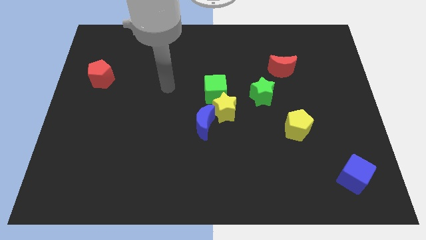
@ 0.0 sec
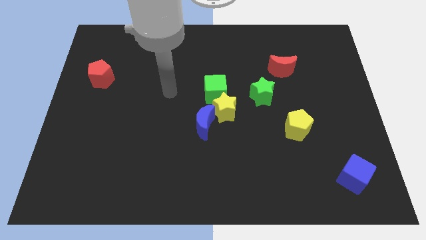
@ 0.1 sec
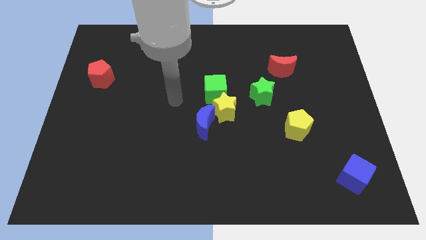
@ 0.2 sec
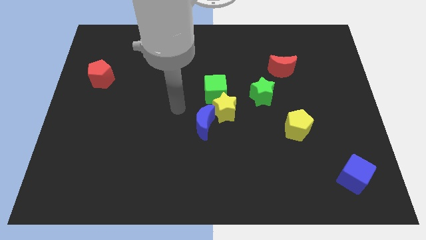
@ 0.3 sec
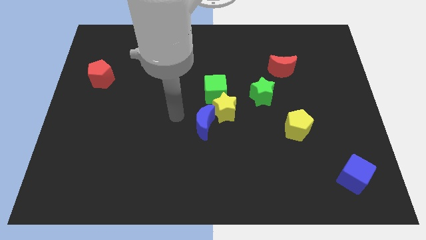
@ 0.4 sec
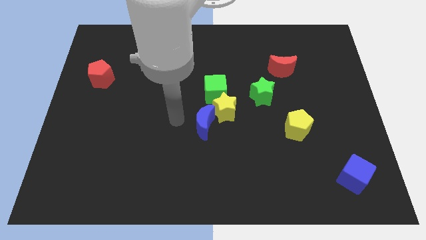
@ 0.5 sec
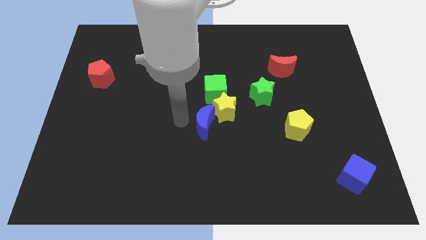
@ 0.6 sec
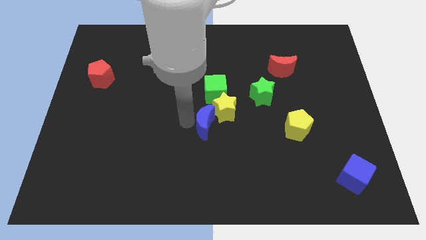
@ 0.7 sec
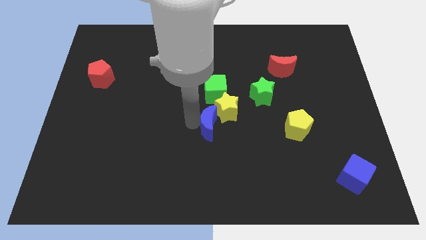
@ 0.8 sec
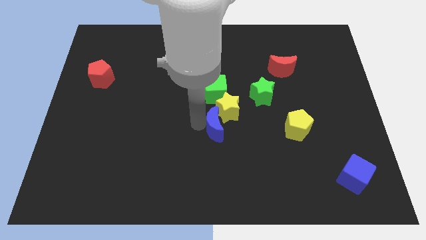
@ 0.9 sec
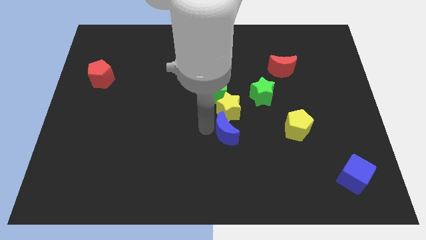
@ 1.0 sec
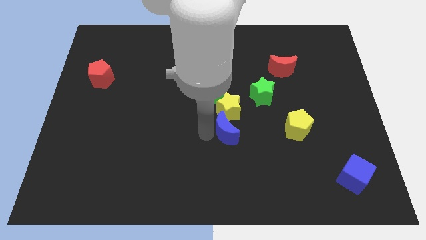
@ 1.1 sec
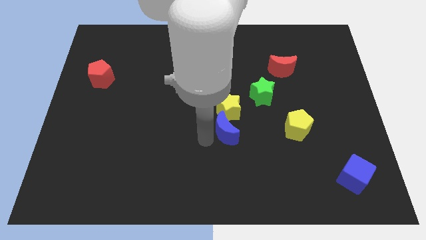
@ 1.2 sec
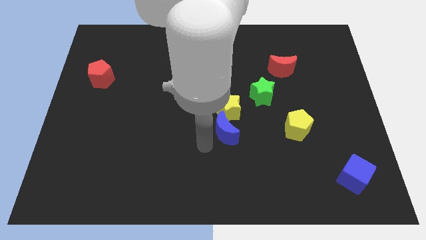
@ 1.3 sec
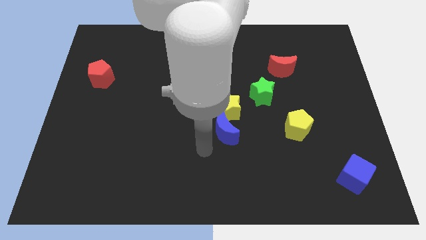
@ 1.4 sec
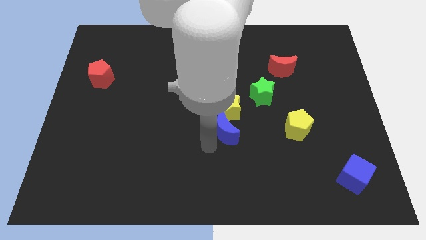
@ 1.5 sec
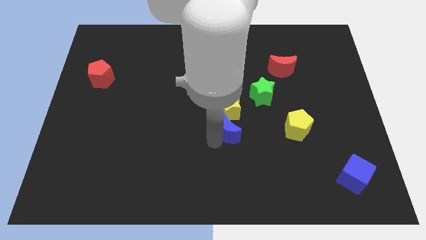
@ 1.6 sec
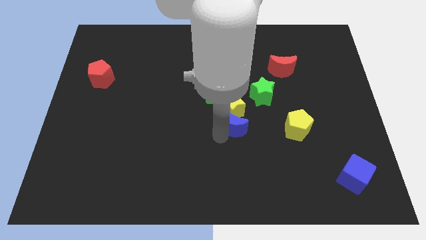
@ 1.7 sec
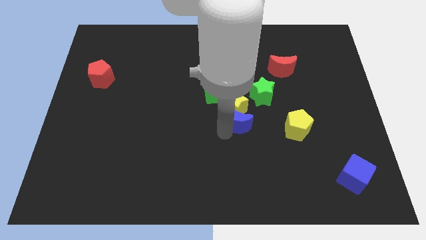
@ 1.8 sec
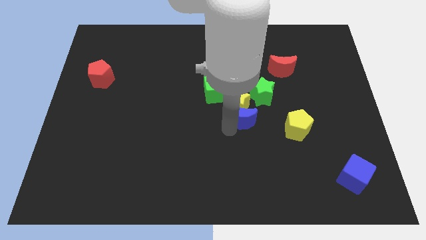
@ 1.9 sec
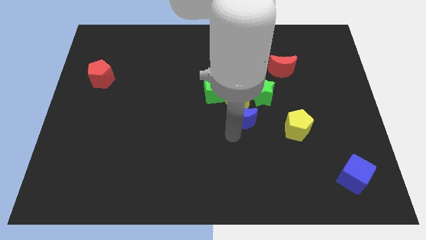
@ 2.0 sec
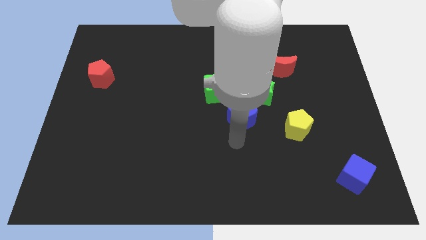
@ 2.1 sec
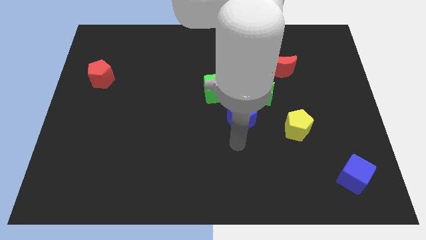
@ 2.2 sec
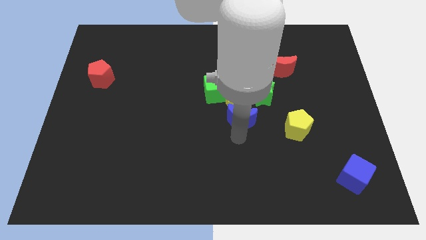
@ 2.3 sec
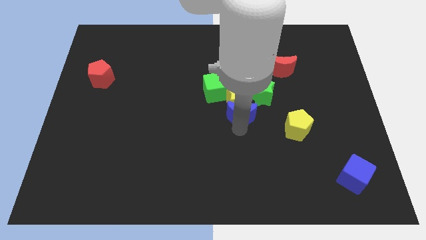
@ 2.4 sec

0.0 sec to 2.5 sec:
slide the blue moon a little up and to the right diagonally

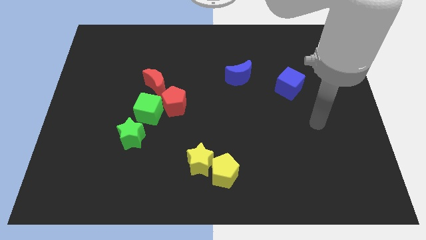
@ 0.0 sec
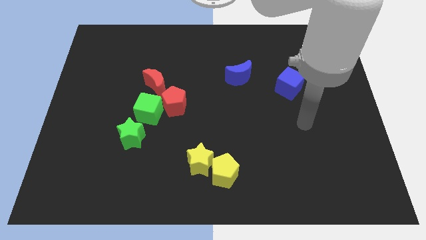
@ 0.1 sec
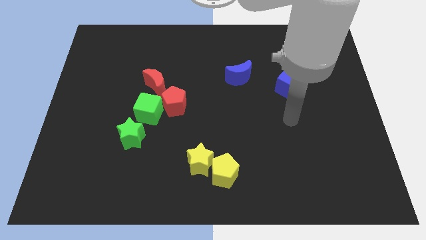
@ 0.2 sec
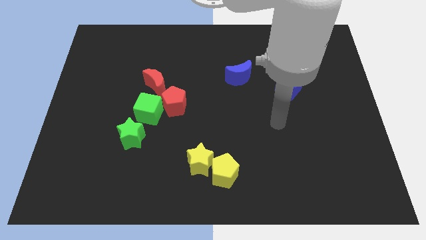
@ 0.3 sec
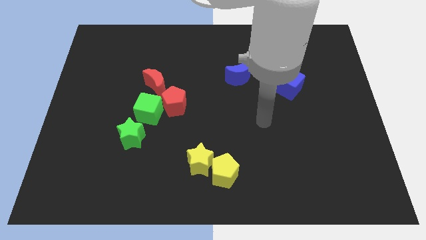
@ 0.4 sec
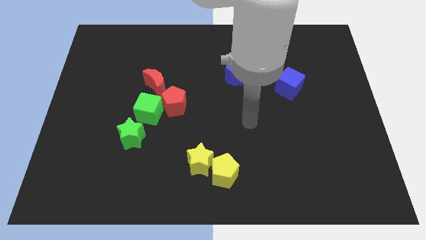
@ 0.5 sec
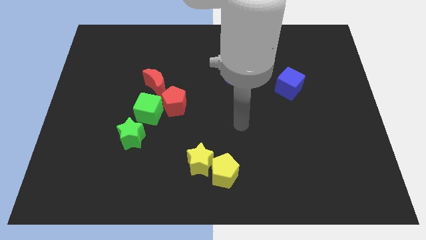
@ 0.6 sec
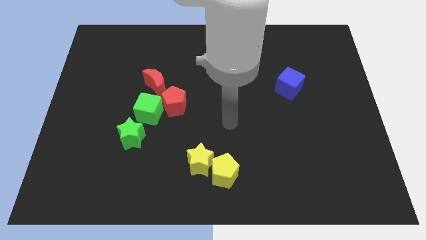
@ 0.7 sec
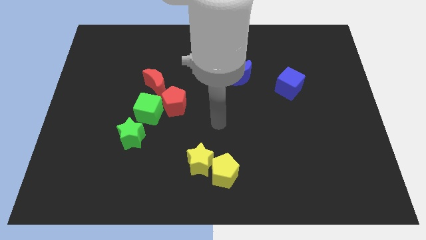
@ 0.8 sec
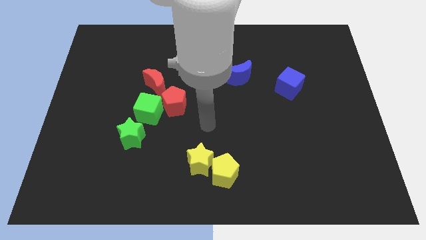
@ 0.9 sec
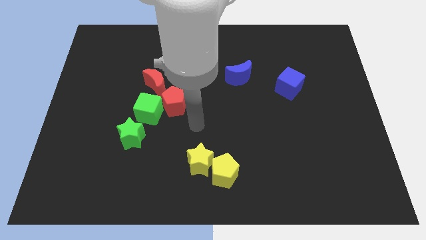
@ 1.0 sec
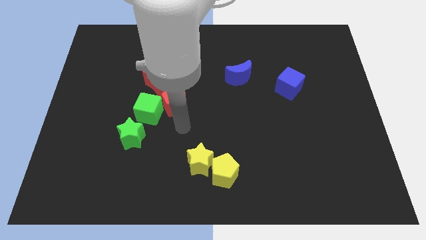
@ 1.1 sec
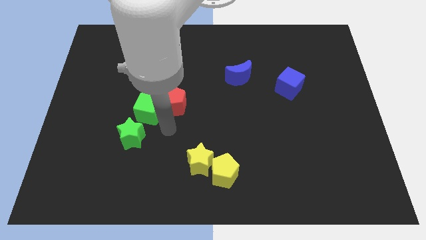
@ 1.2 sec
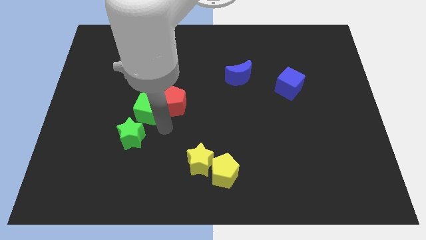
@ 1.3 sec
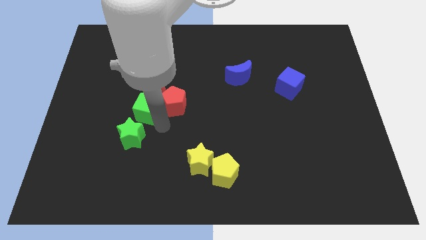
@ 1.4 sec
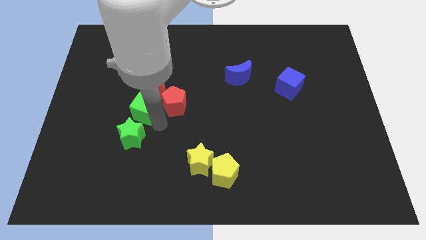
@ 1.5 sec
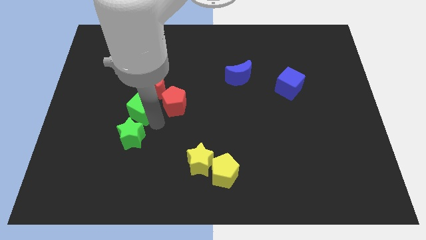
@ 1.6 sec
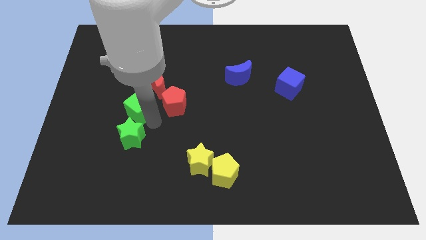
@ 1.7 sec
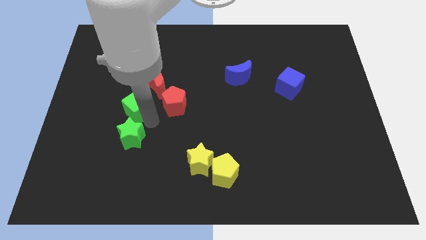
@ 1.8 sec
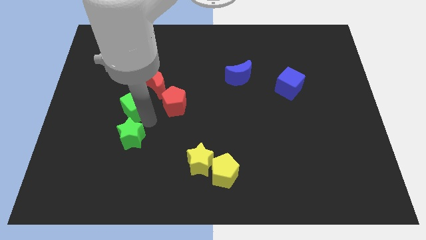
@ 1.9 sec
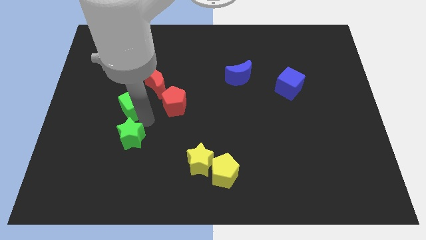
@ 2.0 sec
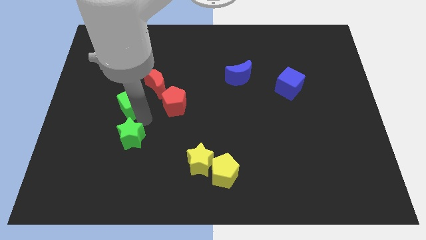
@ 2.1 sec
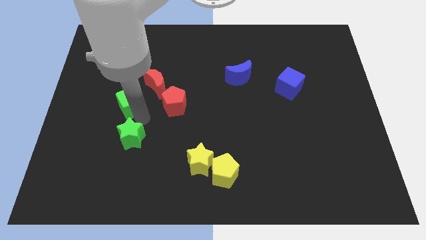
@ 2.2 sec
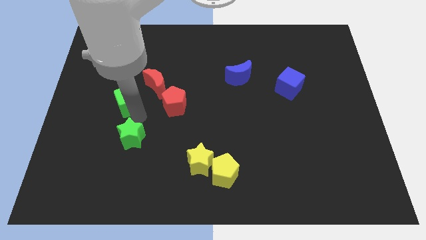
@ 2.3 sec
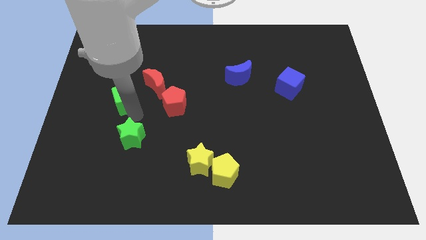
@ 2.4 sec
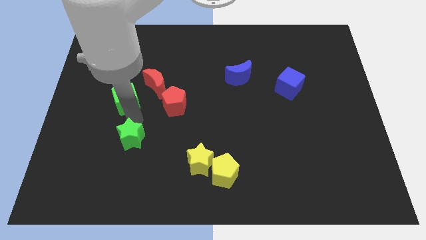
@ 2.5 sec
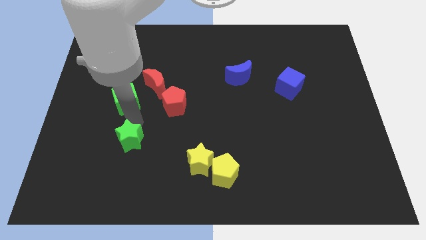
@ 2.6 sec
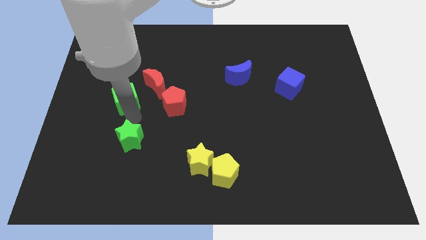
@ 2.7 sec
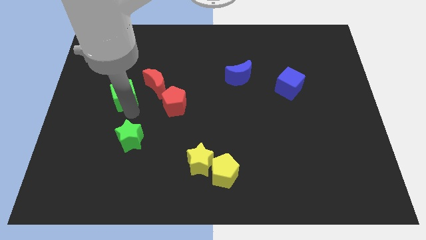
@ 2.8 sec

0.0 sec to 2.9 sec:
slightly push the green cube upwards and left

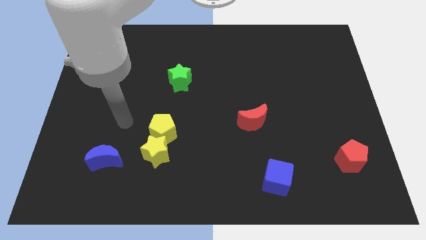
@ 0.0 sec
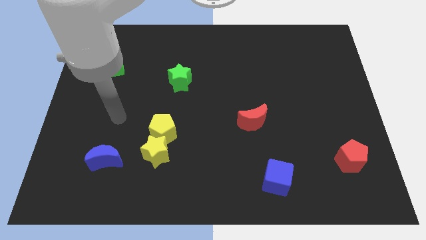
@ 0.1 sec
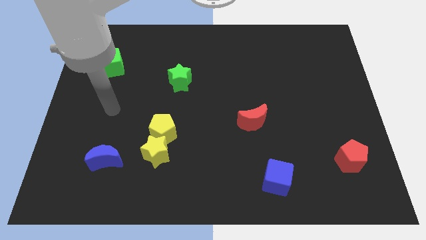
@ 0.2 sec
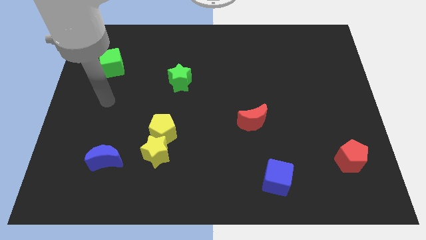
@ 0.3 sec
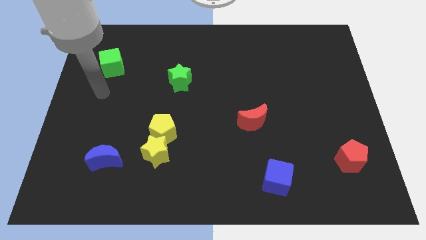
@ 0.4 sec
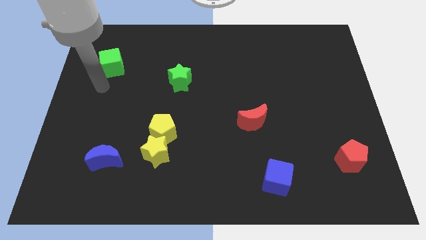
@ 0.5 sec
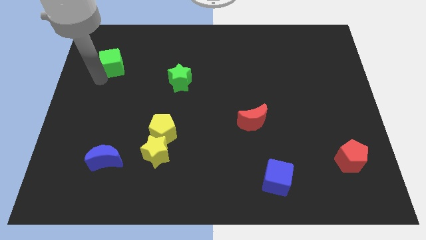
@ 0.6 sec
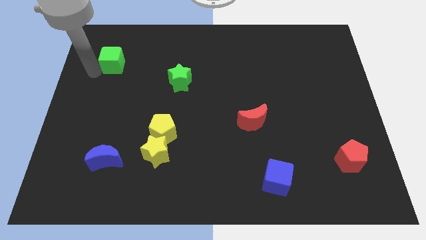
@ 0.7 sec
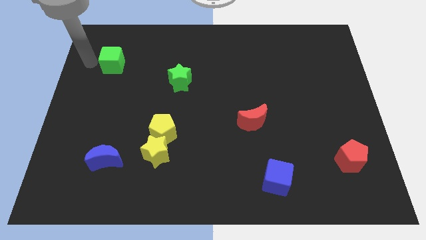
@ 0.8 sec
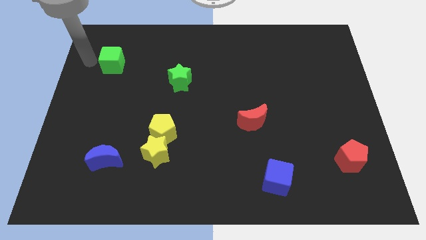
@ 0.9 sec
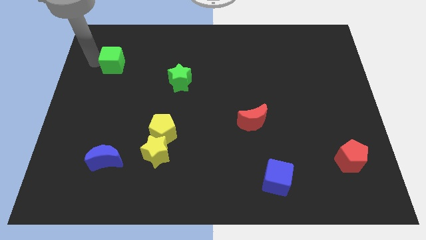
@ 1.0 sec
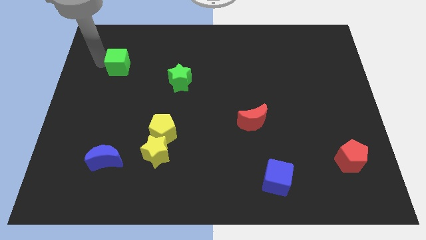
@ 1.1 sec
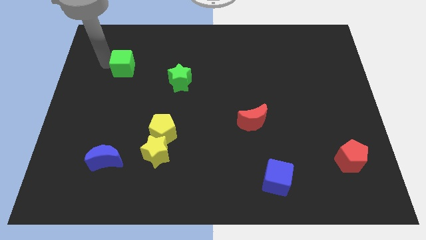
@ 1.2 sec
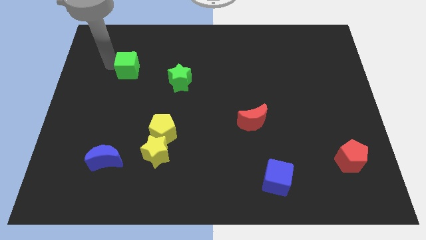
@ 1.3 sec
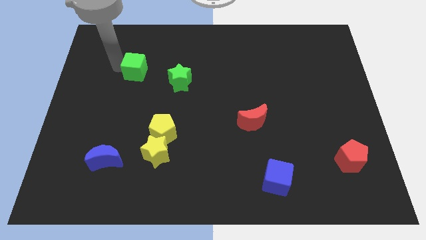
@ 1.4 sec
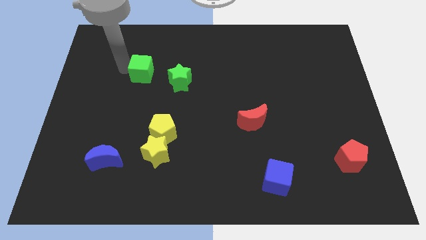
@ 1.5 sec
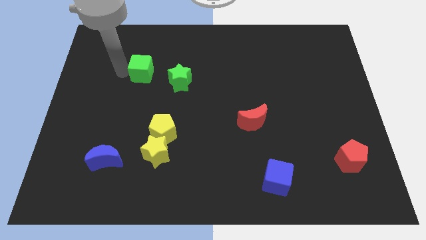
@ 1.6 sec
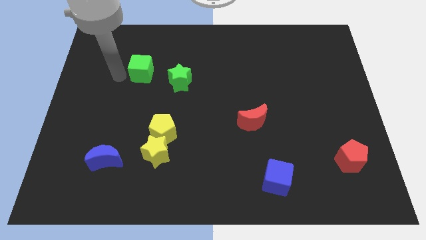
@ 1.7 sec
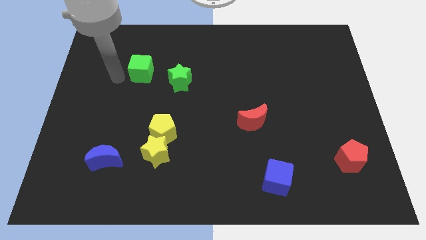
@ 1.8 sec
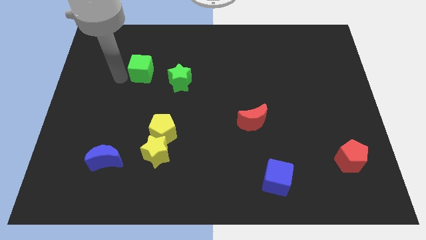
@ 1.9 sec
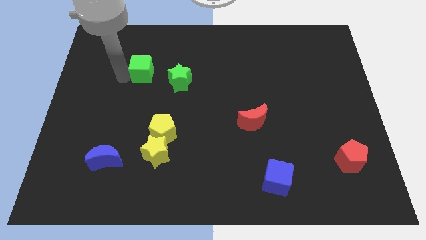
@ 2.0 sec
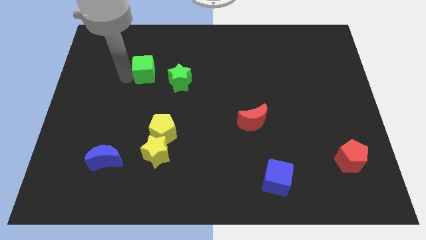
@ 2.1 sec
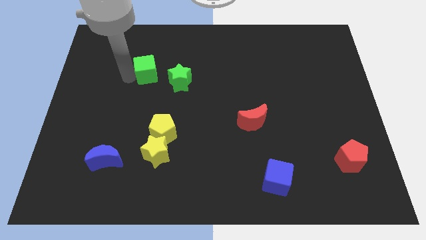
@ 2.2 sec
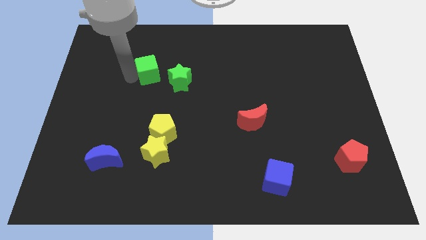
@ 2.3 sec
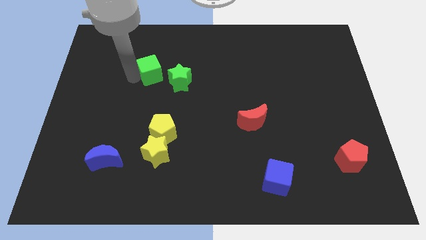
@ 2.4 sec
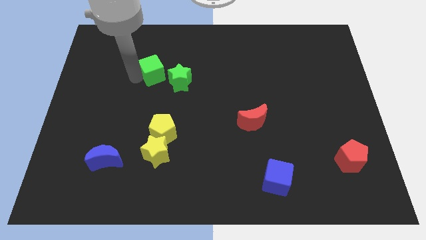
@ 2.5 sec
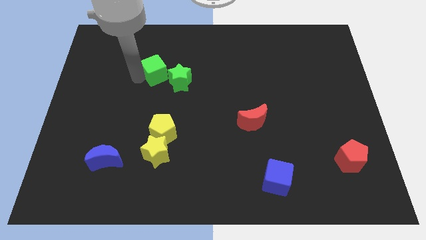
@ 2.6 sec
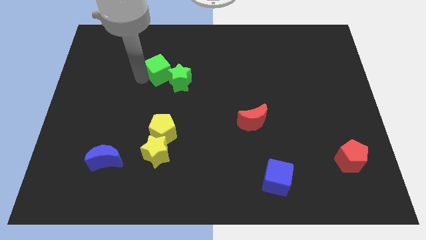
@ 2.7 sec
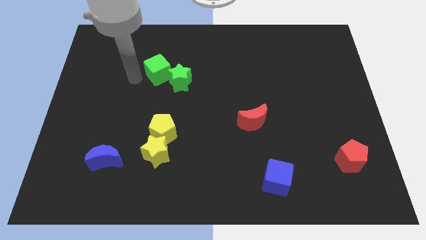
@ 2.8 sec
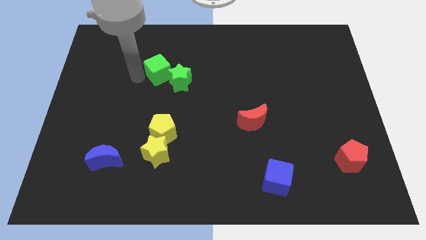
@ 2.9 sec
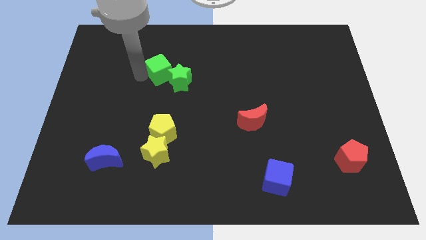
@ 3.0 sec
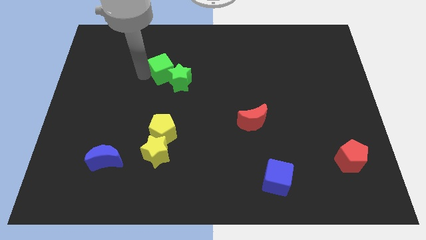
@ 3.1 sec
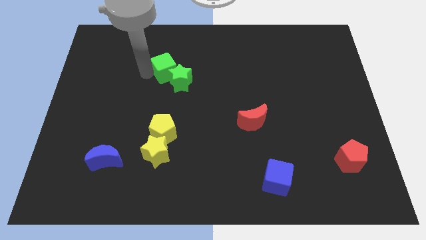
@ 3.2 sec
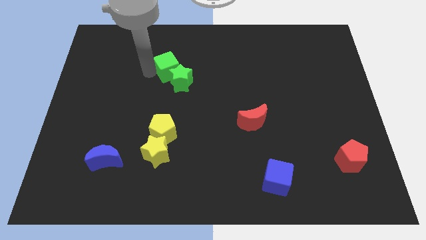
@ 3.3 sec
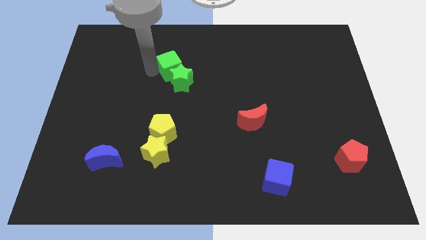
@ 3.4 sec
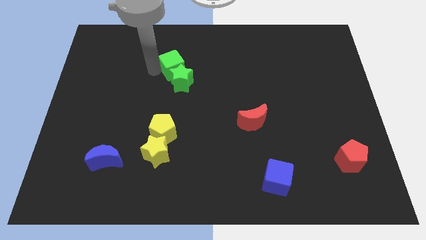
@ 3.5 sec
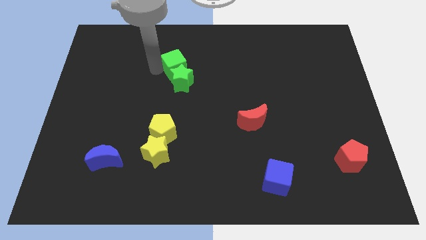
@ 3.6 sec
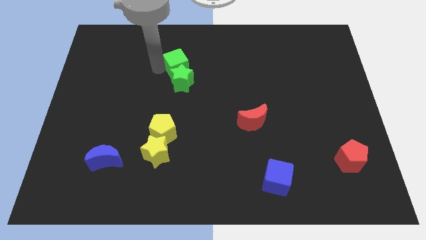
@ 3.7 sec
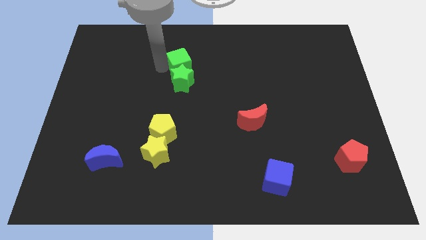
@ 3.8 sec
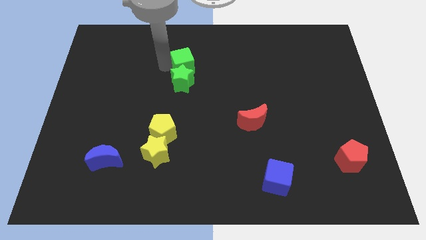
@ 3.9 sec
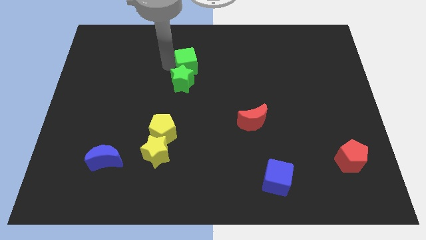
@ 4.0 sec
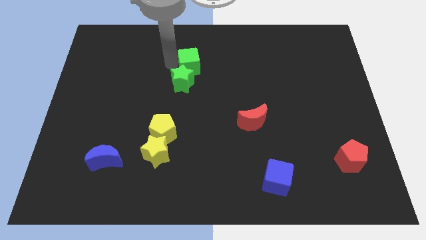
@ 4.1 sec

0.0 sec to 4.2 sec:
slide the green cube to the right
